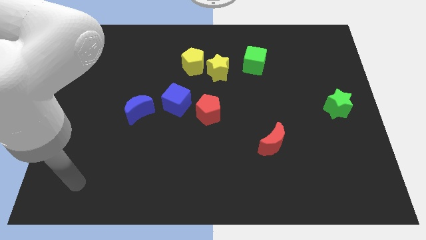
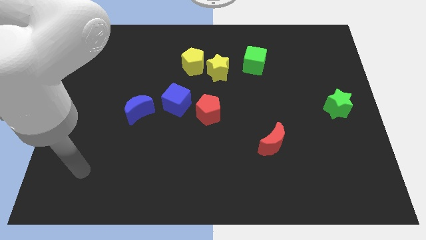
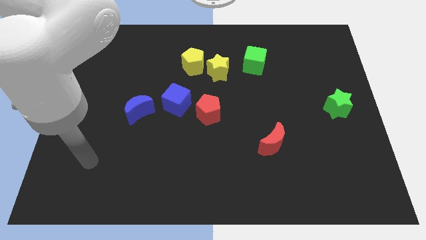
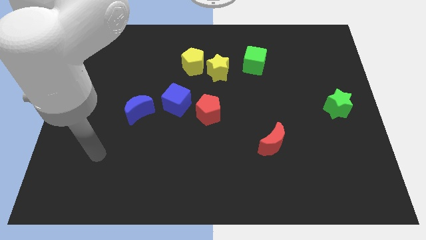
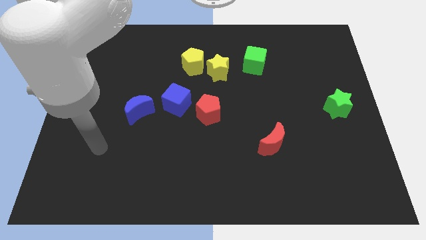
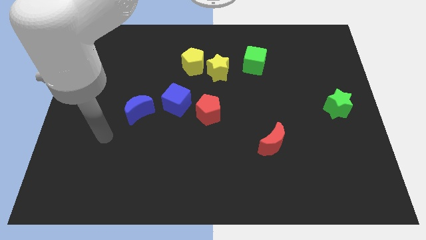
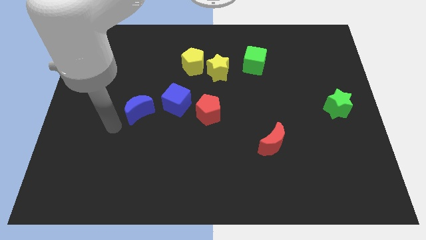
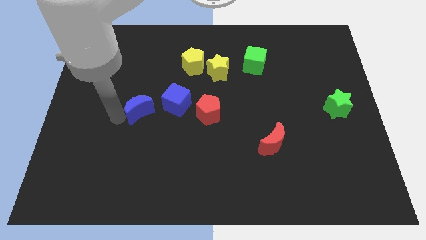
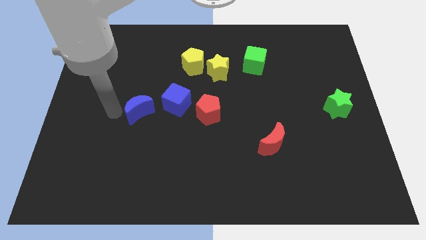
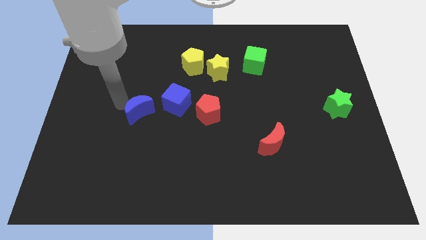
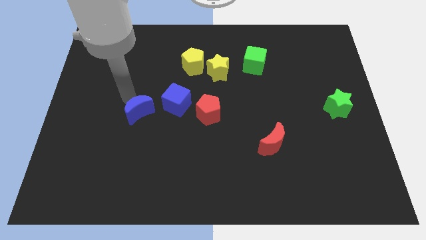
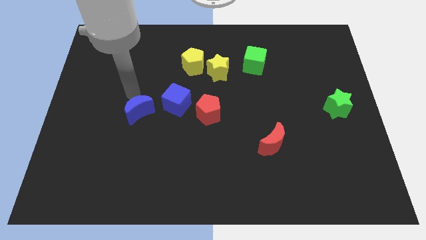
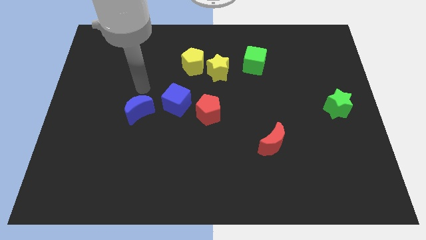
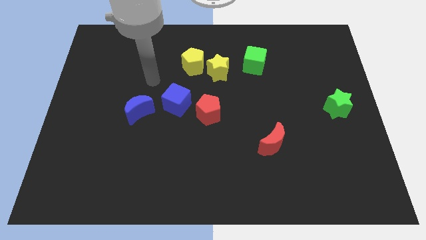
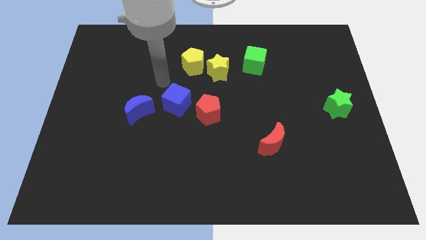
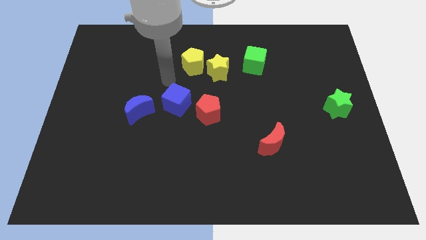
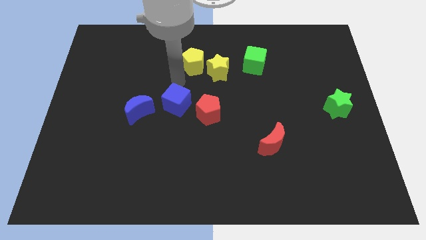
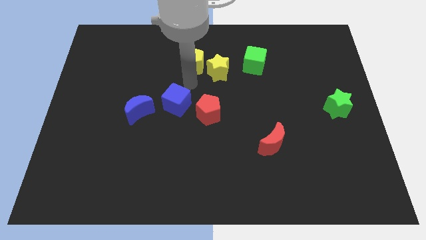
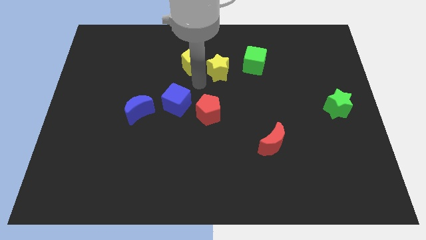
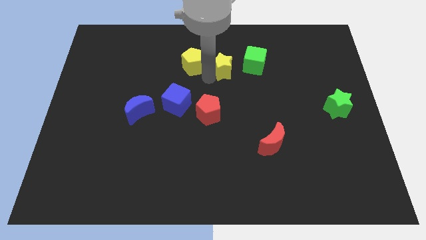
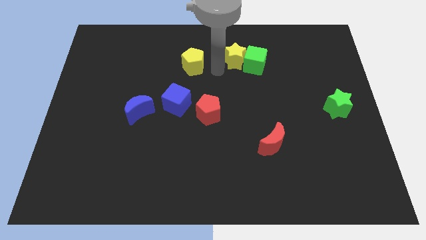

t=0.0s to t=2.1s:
move the yellow pentagon away from the yellow star

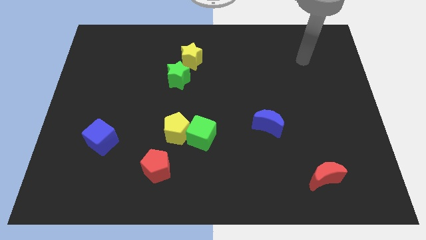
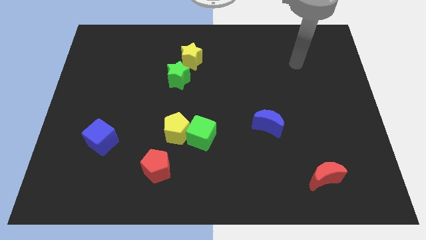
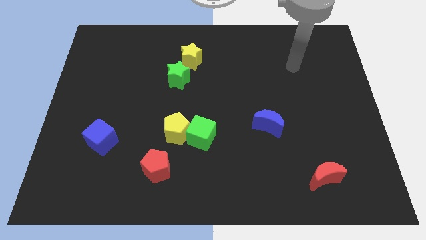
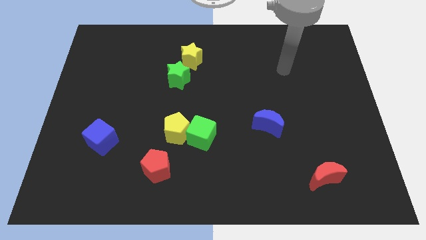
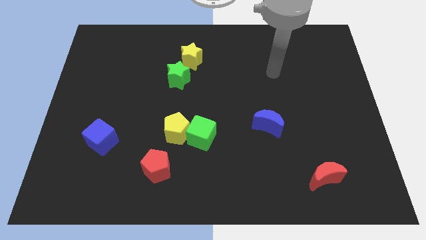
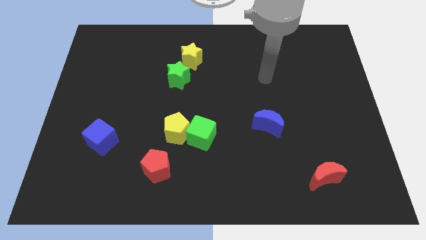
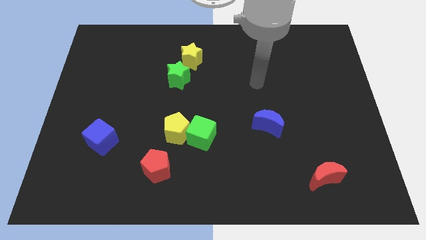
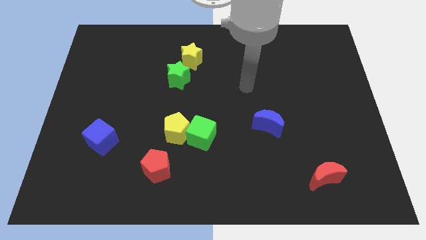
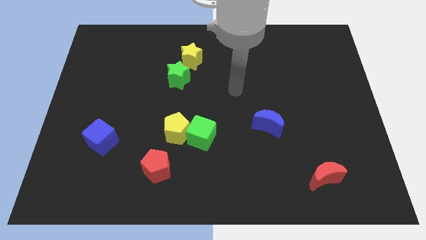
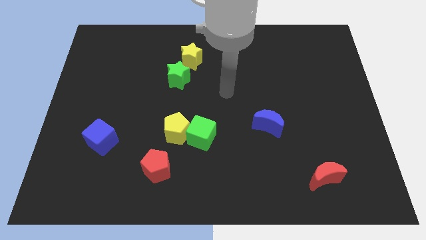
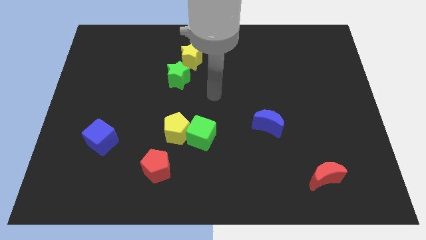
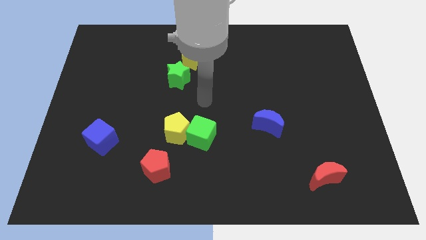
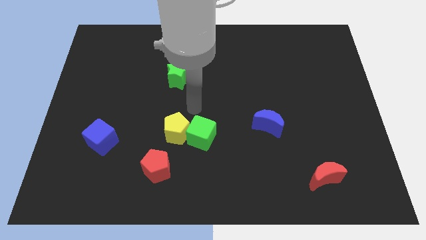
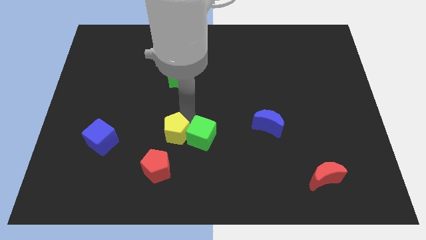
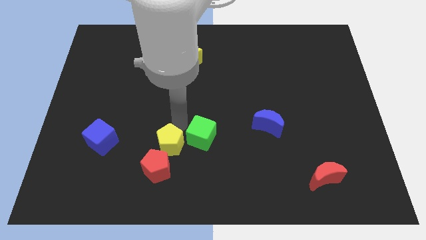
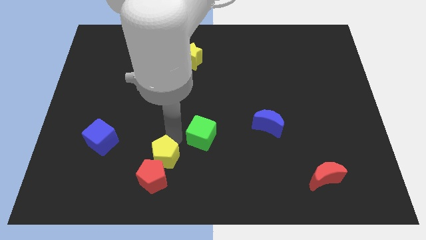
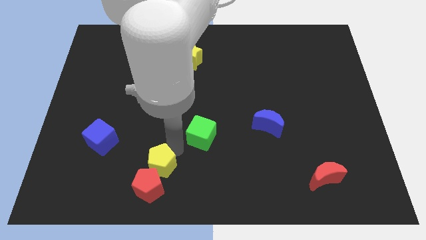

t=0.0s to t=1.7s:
move the green cube away from the yellow pentagon

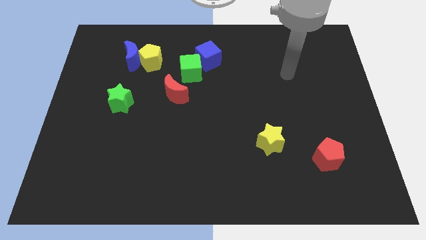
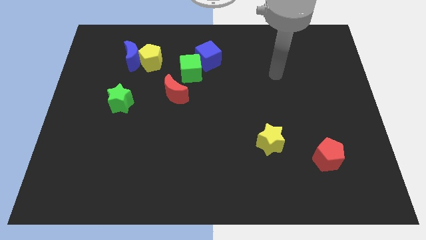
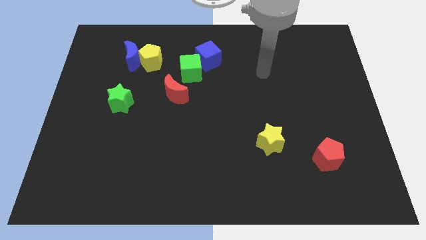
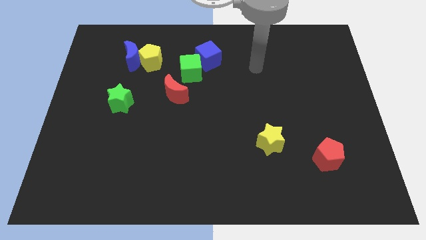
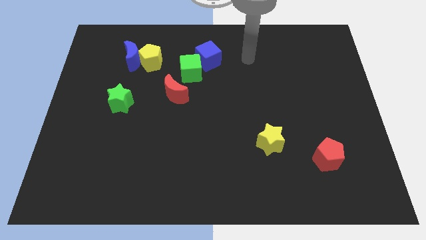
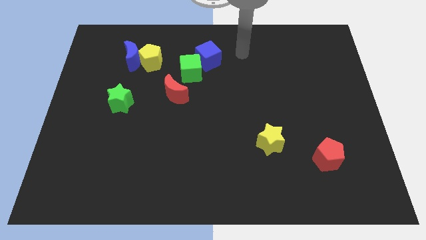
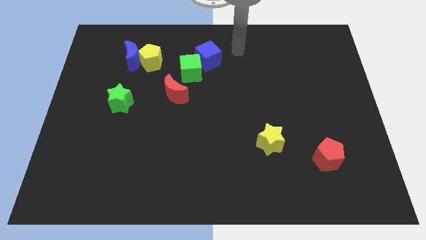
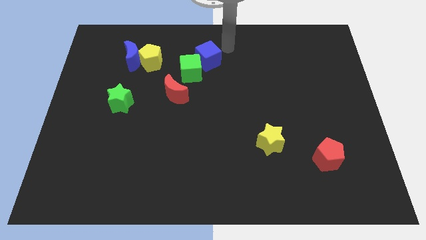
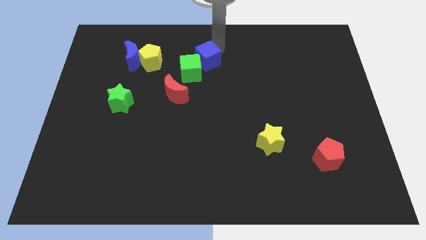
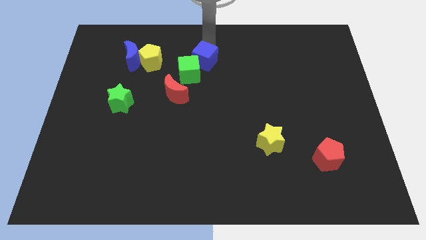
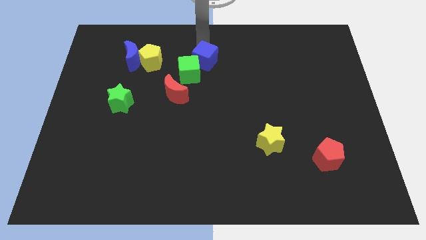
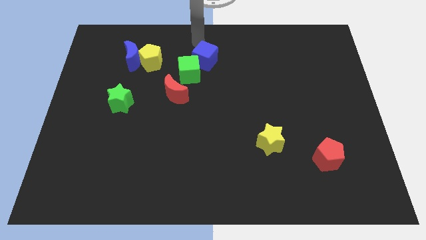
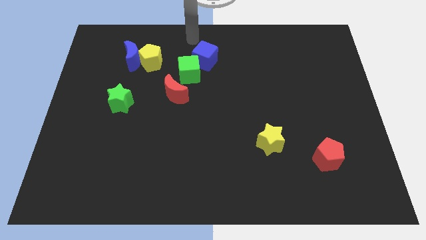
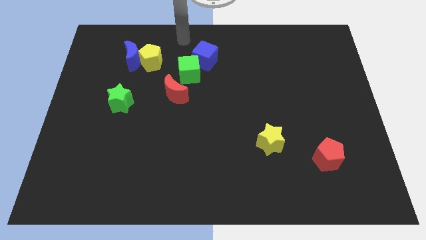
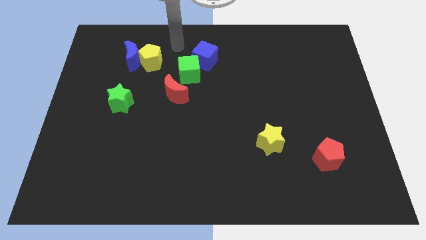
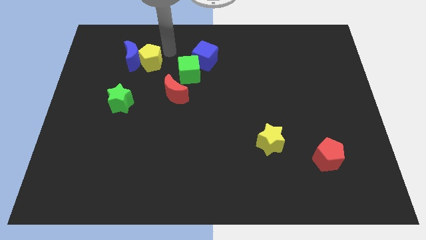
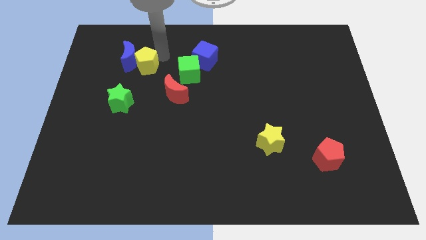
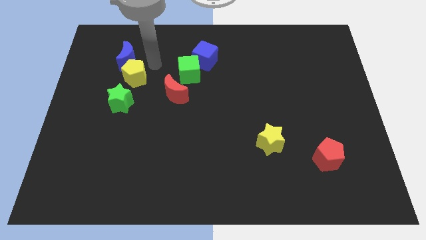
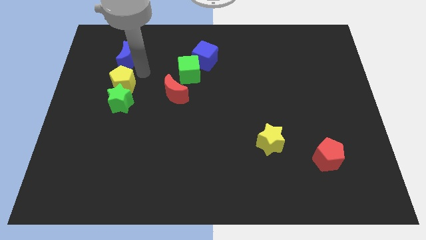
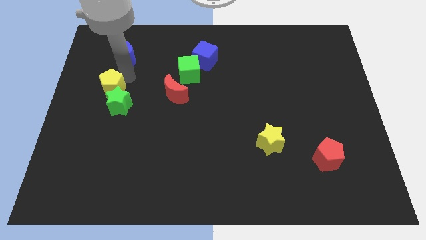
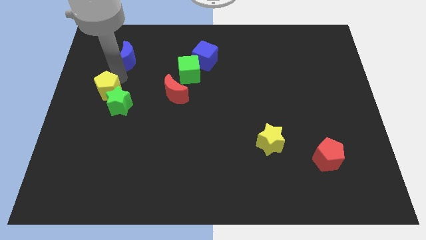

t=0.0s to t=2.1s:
separate the blue moon from the yellow pentagon

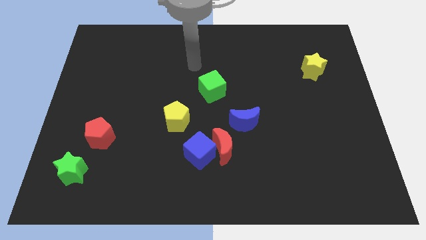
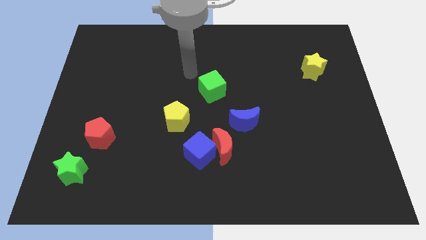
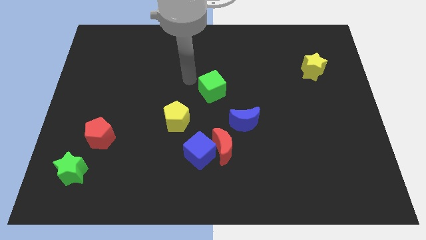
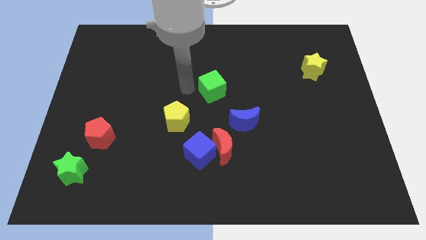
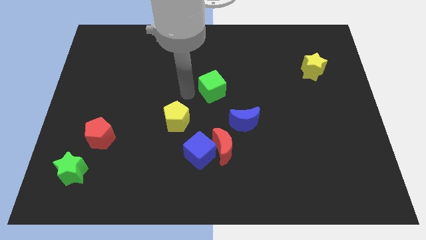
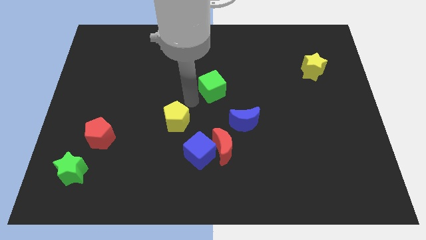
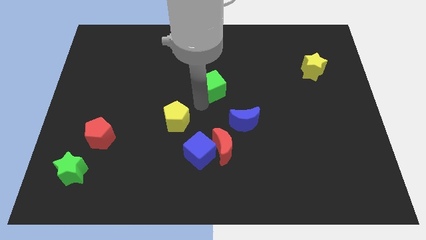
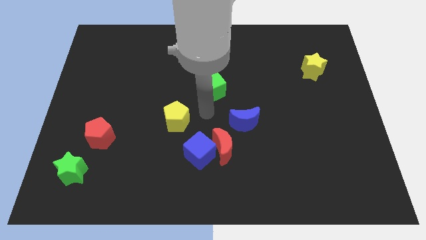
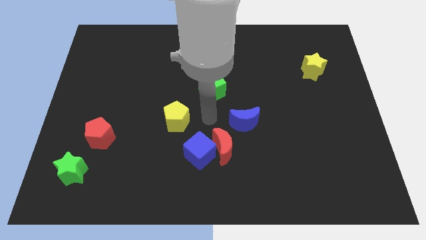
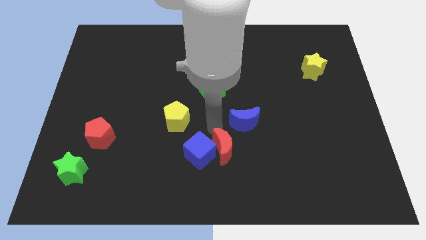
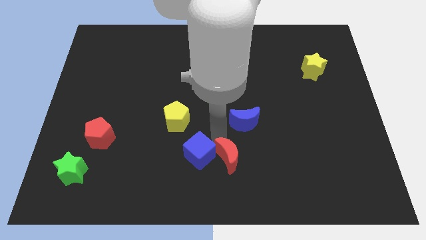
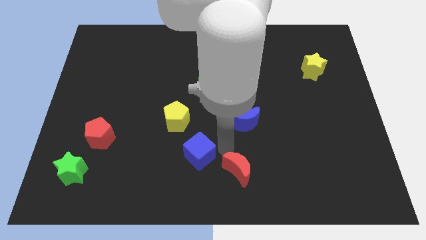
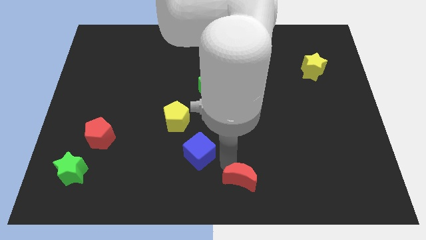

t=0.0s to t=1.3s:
separate the blue cube from the red moon

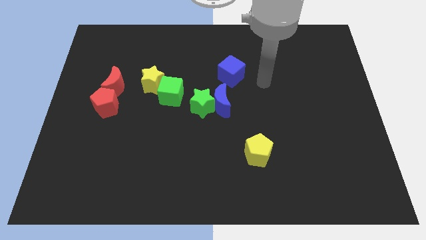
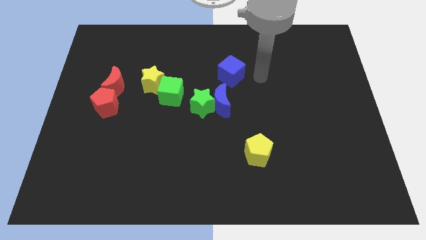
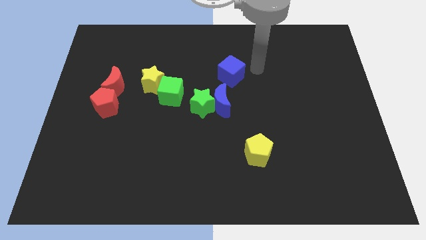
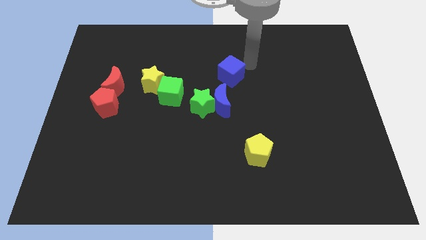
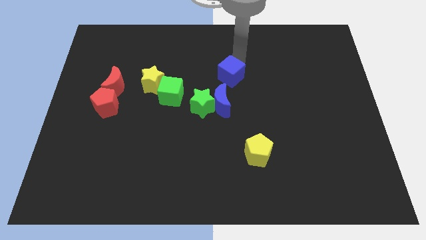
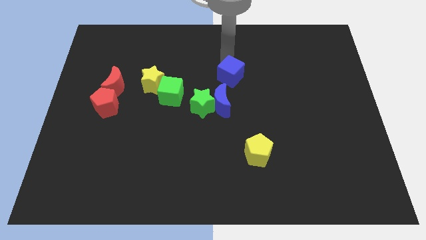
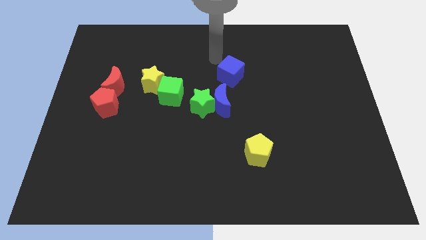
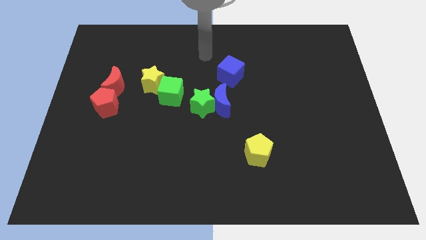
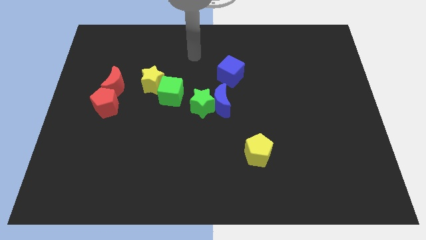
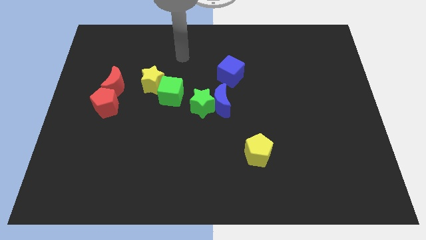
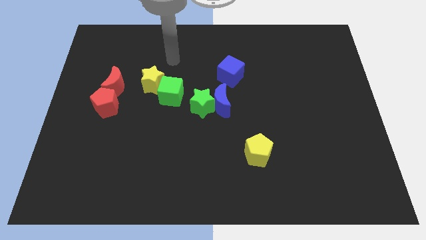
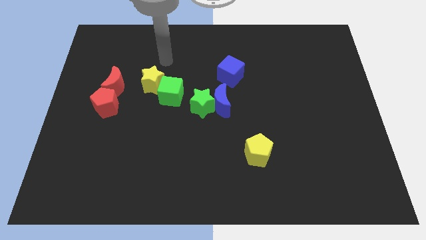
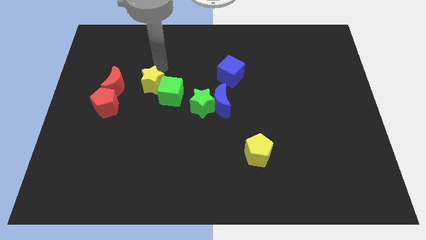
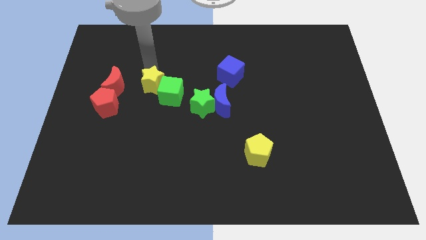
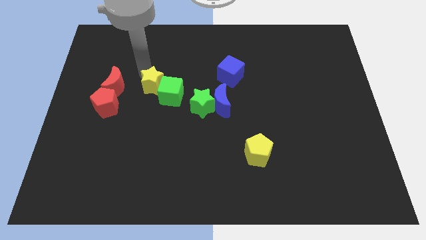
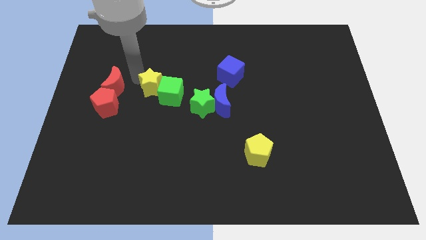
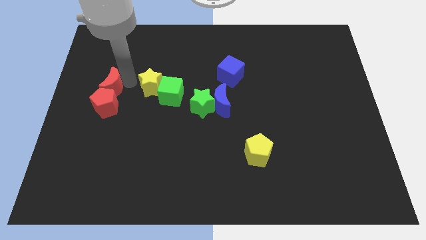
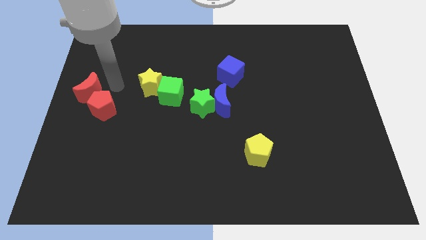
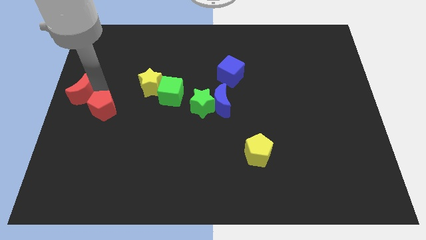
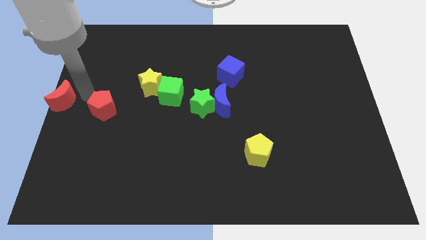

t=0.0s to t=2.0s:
move the red pentagon away from the red moon
